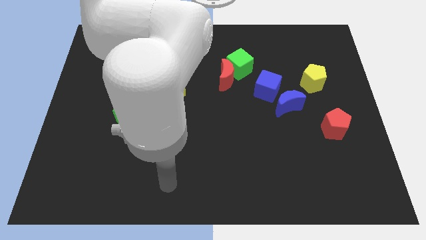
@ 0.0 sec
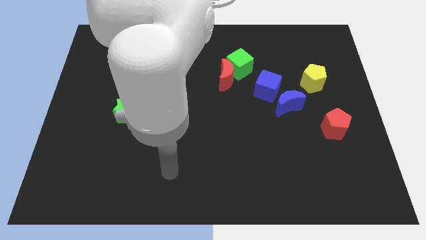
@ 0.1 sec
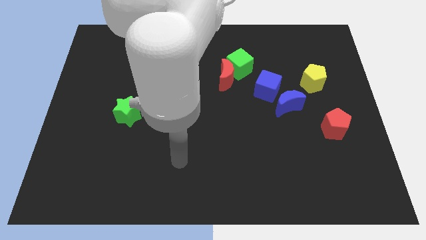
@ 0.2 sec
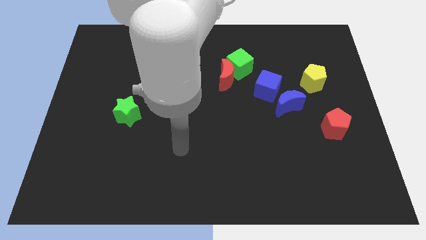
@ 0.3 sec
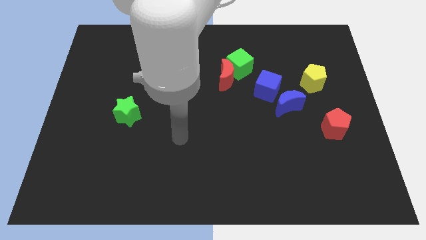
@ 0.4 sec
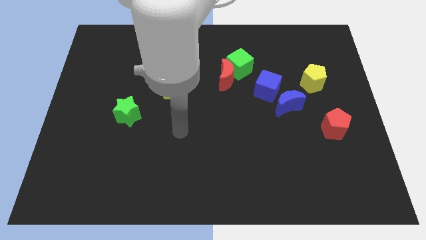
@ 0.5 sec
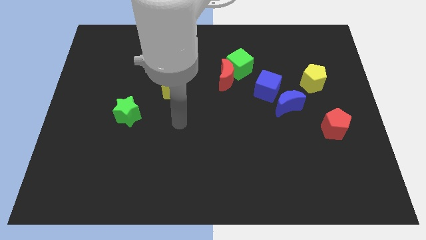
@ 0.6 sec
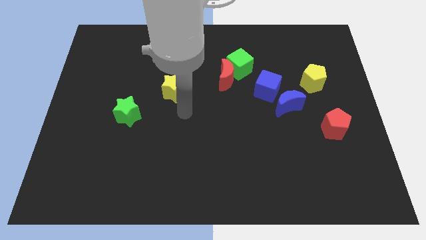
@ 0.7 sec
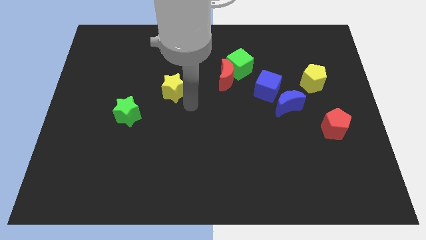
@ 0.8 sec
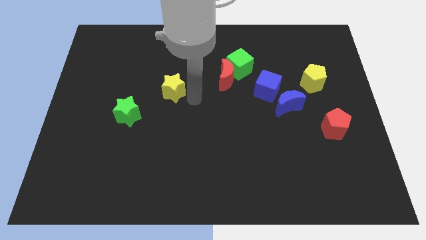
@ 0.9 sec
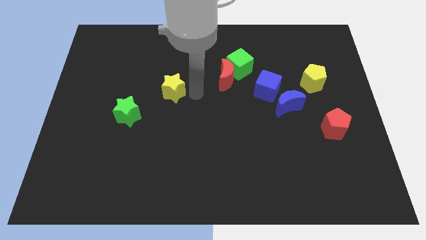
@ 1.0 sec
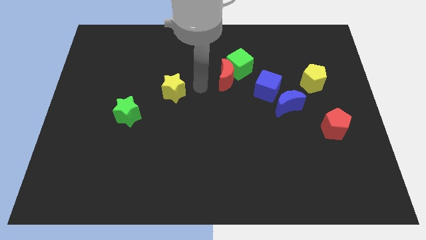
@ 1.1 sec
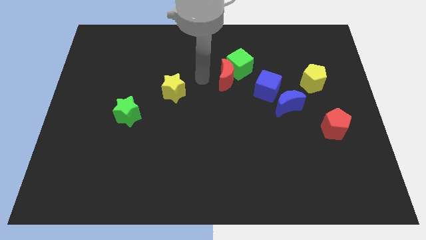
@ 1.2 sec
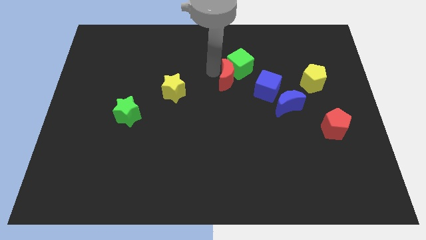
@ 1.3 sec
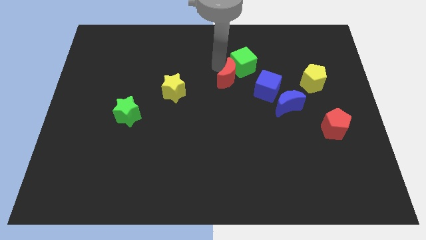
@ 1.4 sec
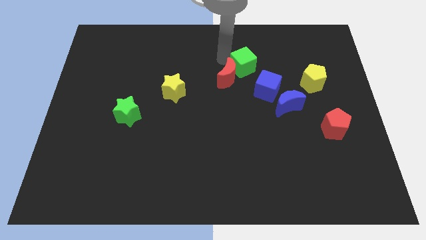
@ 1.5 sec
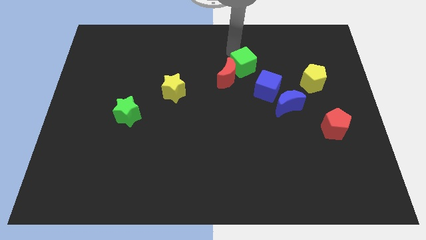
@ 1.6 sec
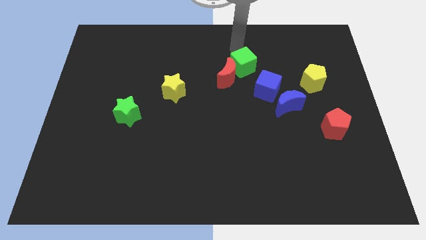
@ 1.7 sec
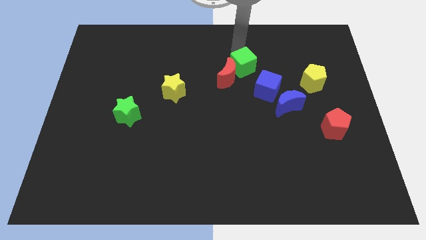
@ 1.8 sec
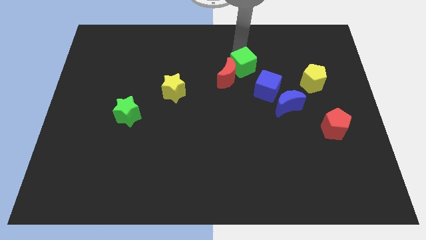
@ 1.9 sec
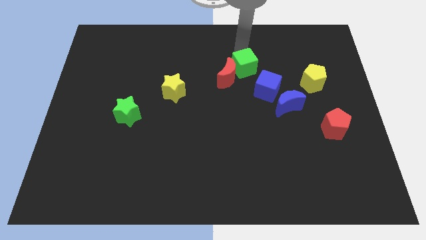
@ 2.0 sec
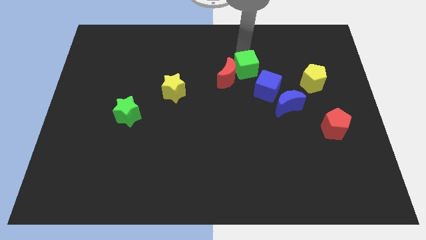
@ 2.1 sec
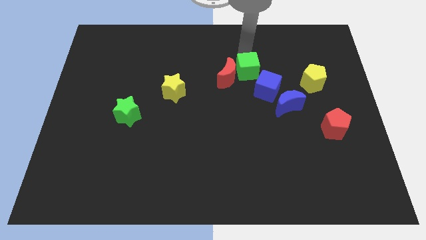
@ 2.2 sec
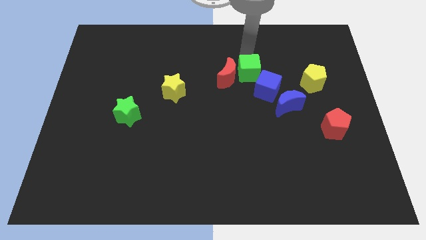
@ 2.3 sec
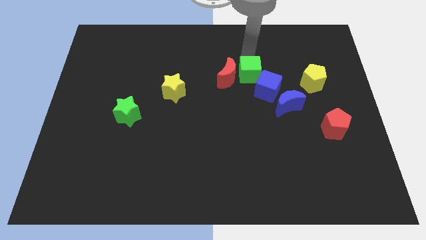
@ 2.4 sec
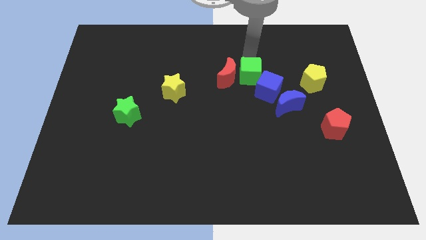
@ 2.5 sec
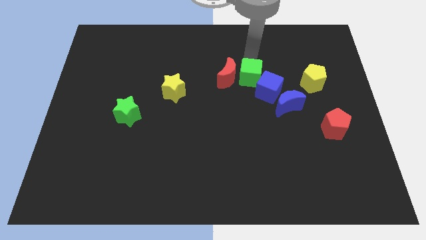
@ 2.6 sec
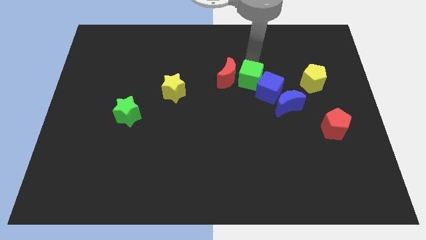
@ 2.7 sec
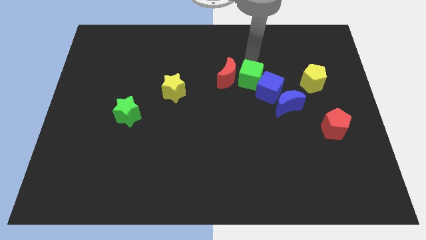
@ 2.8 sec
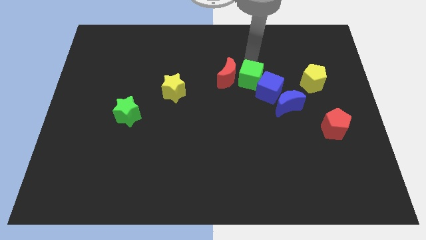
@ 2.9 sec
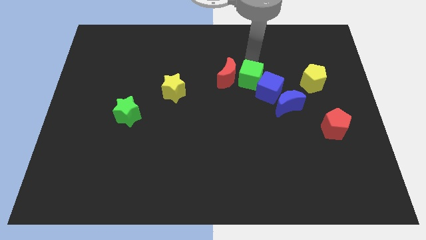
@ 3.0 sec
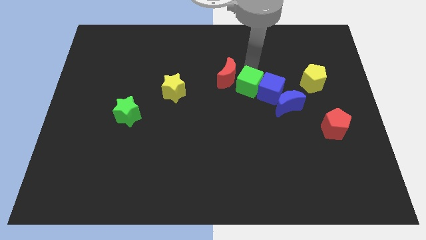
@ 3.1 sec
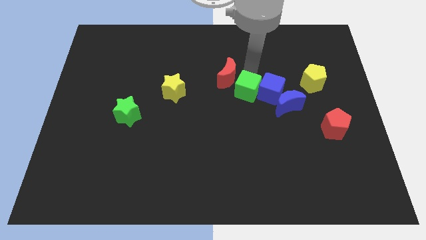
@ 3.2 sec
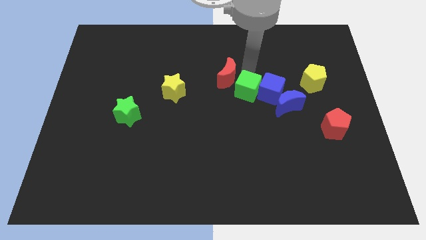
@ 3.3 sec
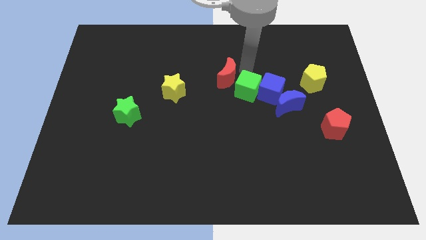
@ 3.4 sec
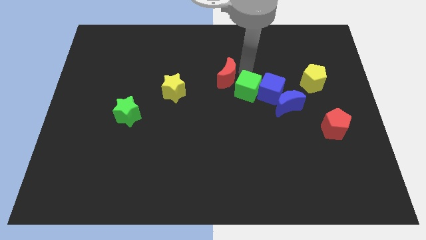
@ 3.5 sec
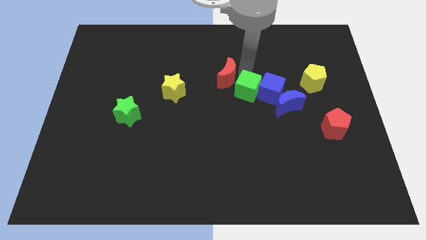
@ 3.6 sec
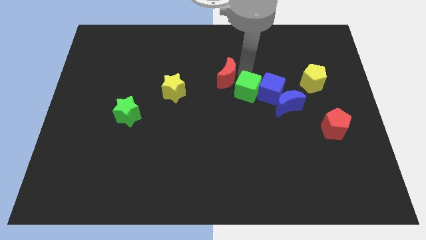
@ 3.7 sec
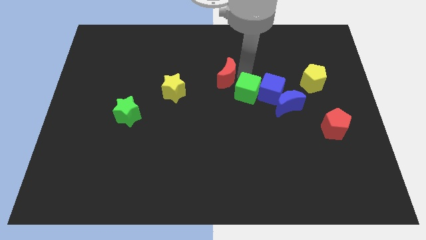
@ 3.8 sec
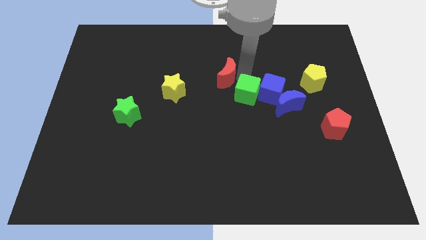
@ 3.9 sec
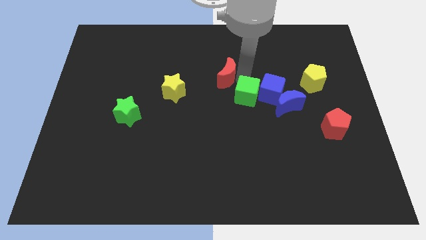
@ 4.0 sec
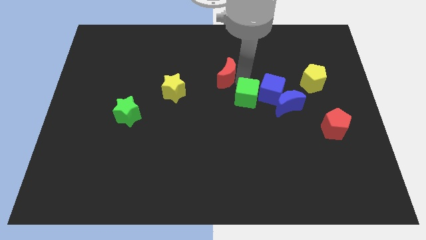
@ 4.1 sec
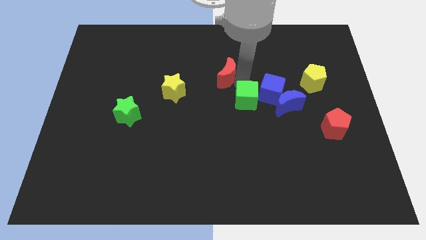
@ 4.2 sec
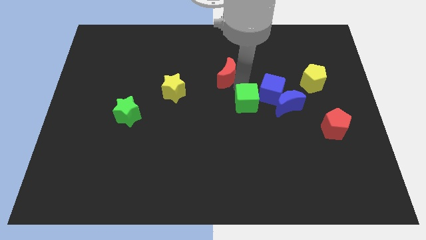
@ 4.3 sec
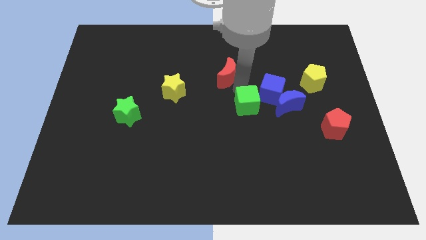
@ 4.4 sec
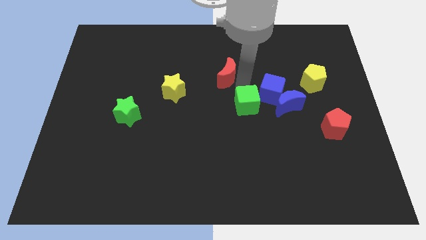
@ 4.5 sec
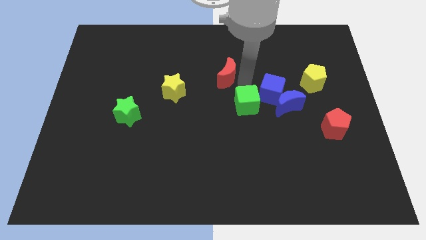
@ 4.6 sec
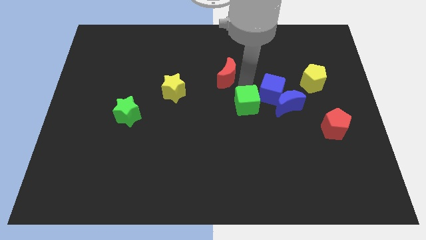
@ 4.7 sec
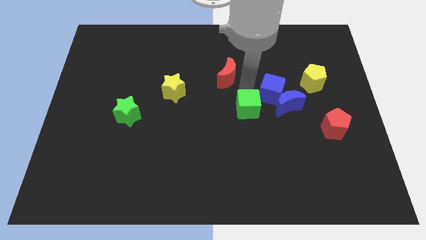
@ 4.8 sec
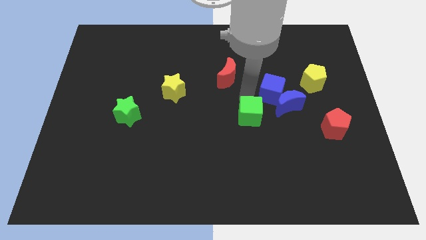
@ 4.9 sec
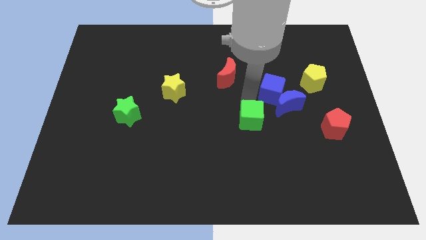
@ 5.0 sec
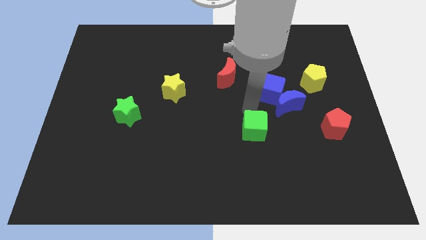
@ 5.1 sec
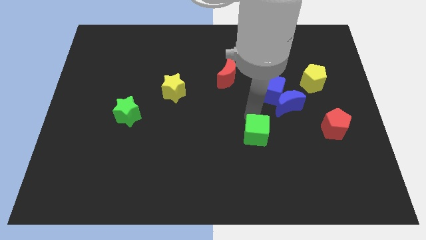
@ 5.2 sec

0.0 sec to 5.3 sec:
slide the green cube downwards

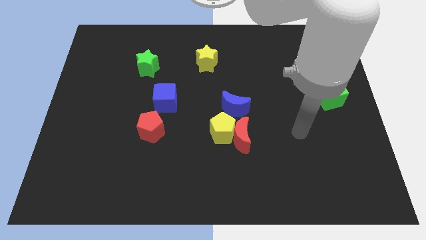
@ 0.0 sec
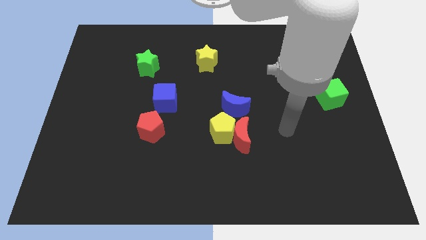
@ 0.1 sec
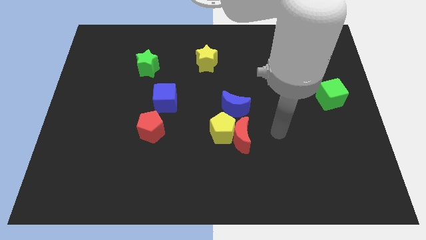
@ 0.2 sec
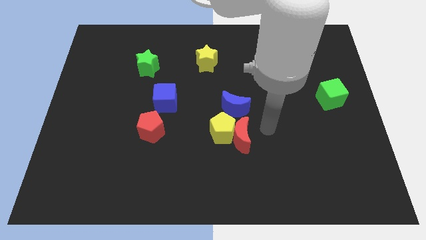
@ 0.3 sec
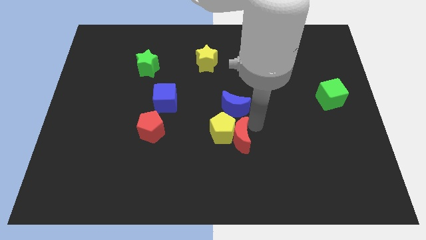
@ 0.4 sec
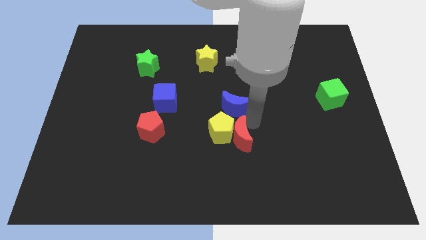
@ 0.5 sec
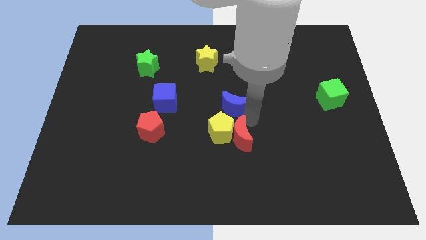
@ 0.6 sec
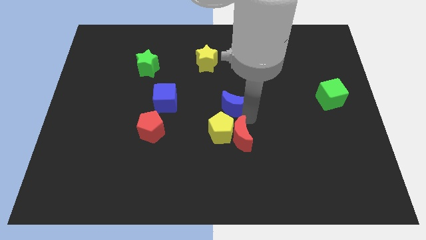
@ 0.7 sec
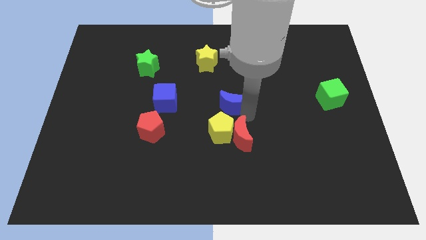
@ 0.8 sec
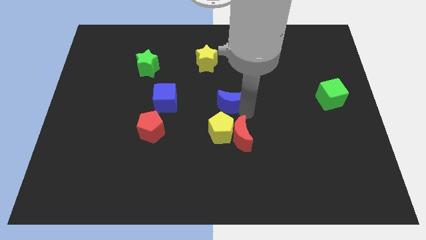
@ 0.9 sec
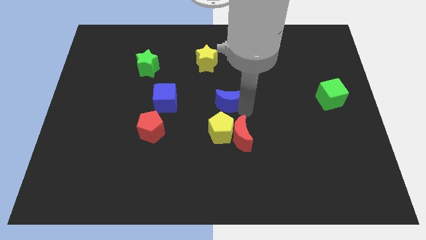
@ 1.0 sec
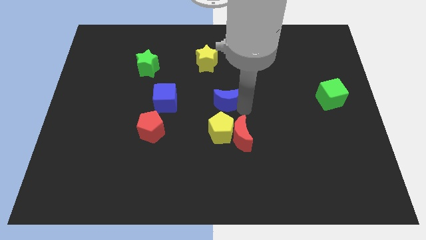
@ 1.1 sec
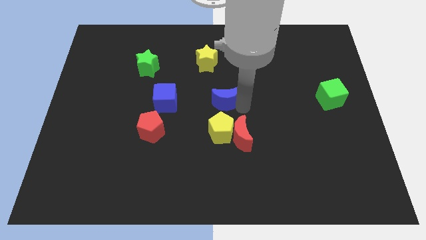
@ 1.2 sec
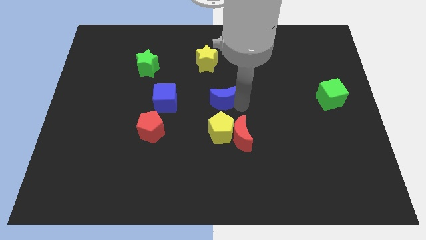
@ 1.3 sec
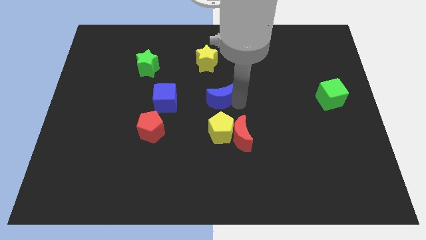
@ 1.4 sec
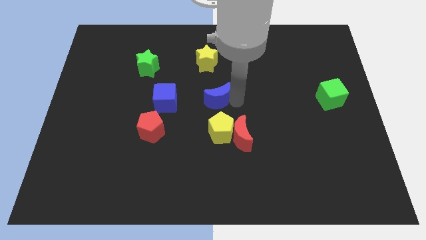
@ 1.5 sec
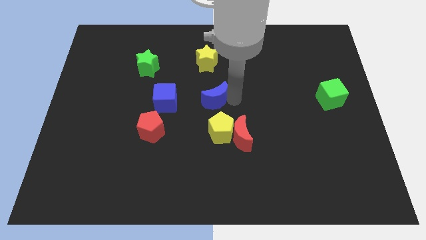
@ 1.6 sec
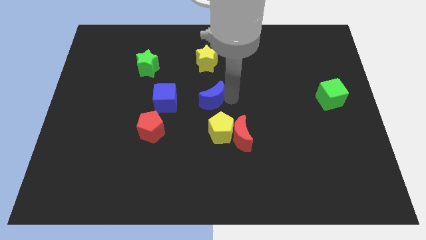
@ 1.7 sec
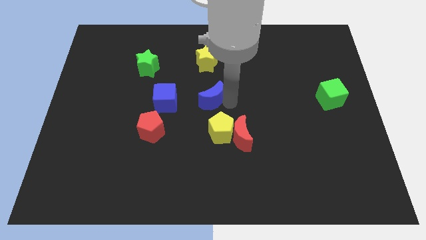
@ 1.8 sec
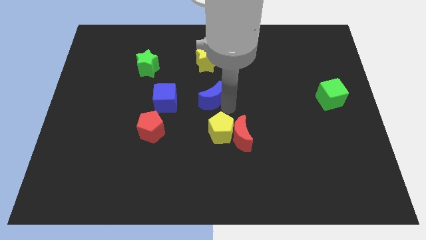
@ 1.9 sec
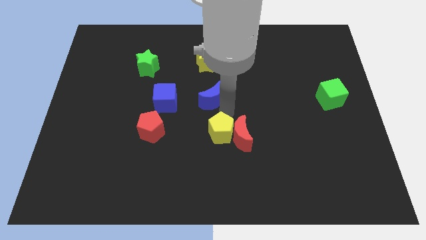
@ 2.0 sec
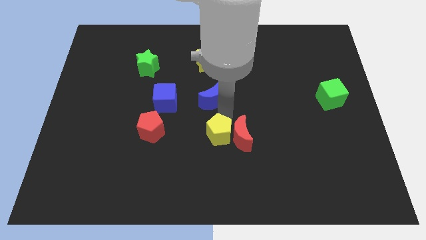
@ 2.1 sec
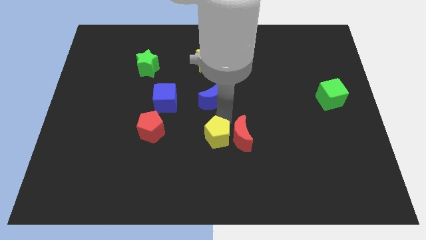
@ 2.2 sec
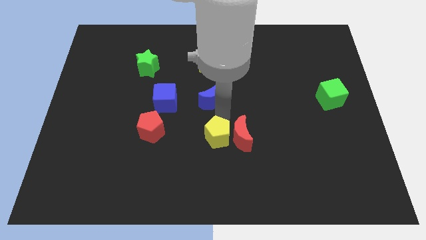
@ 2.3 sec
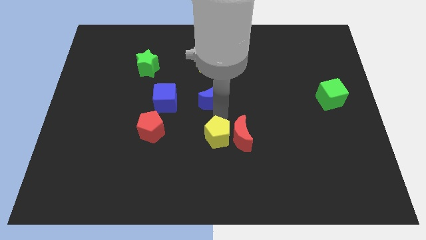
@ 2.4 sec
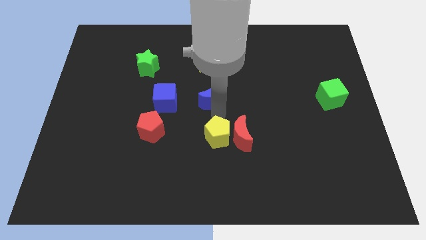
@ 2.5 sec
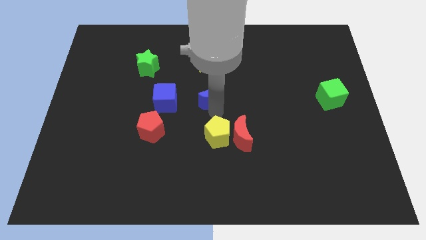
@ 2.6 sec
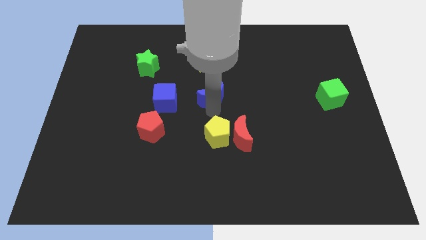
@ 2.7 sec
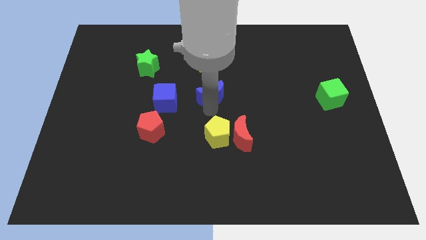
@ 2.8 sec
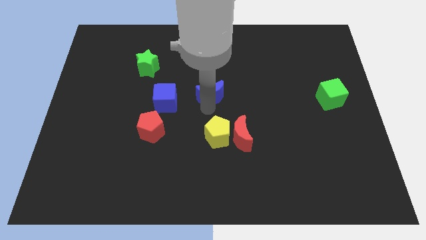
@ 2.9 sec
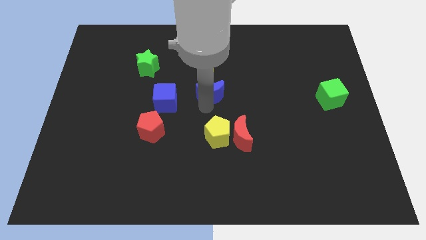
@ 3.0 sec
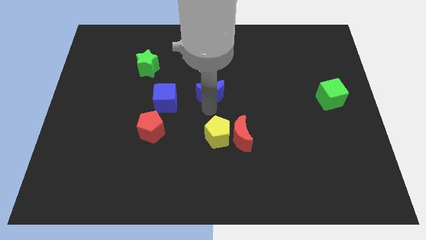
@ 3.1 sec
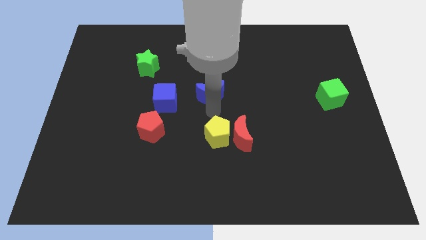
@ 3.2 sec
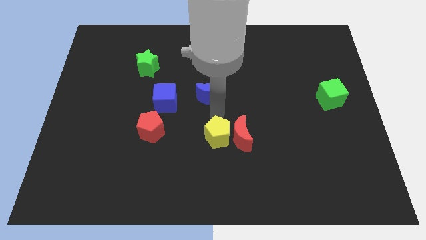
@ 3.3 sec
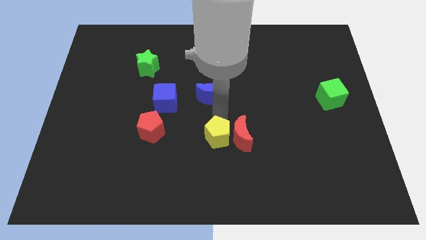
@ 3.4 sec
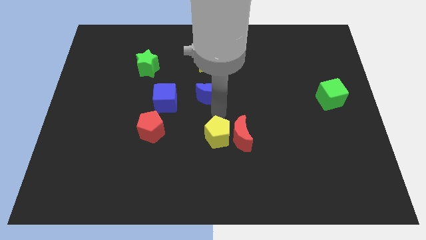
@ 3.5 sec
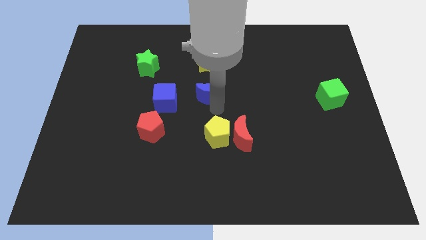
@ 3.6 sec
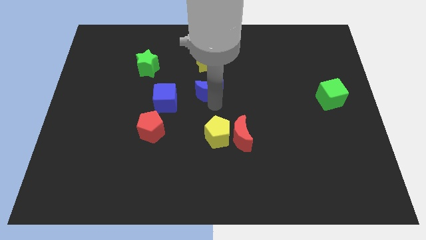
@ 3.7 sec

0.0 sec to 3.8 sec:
push the blue moon a little upwards and to the left diagonally
